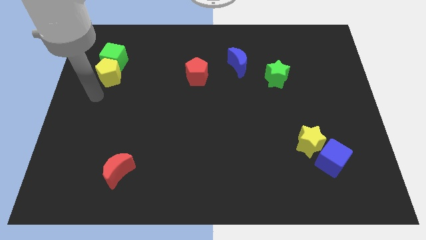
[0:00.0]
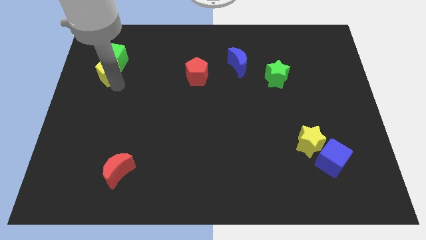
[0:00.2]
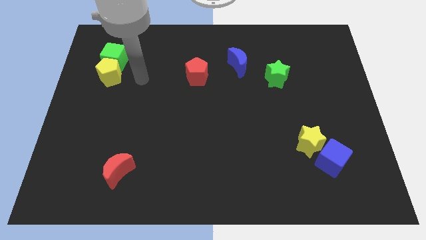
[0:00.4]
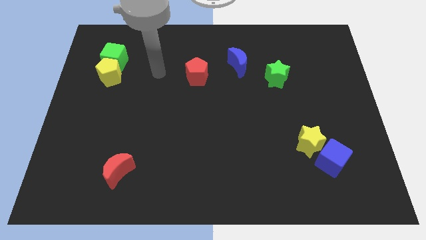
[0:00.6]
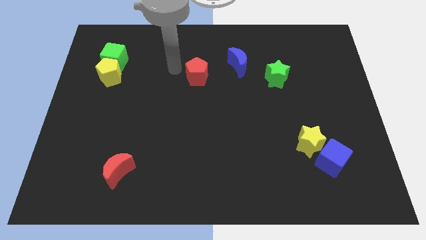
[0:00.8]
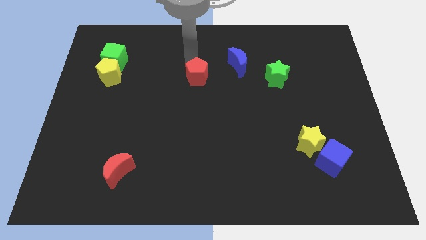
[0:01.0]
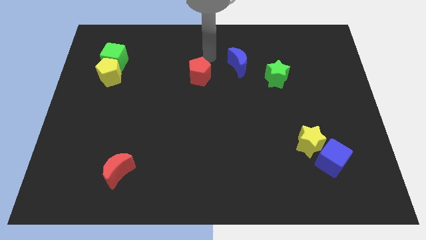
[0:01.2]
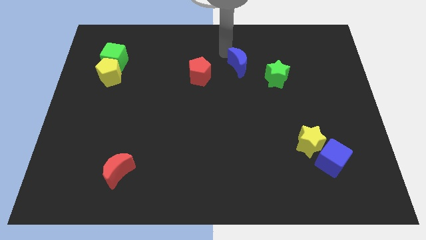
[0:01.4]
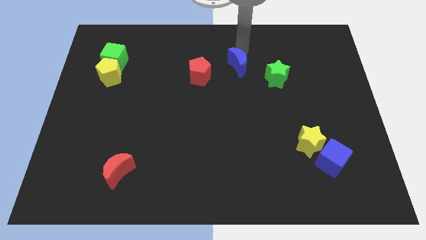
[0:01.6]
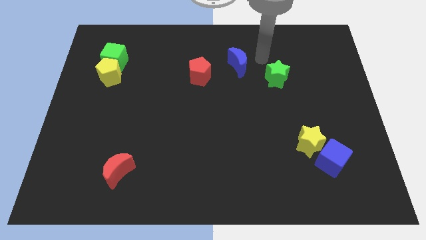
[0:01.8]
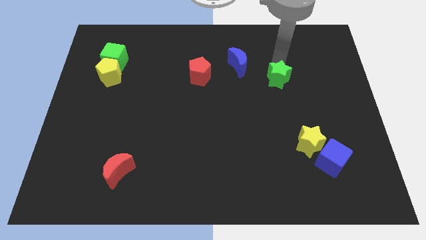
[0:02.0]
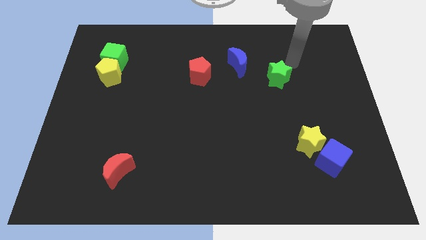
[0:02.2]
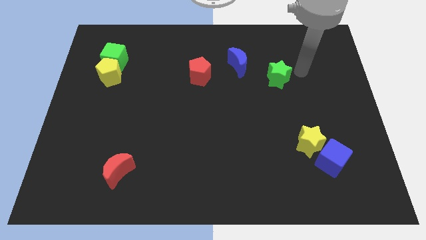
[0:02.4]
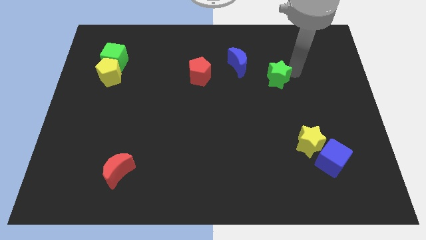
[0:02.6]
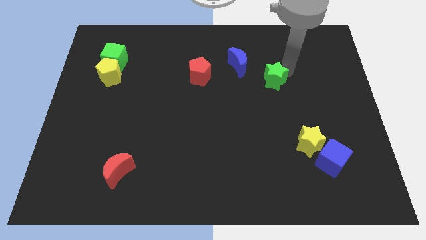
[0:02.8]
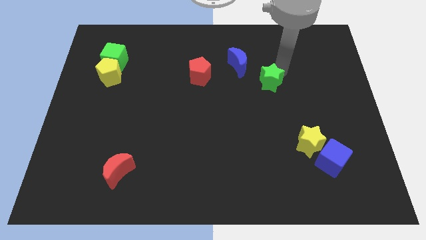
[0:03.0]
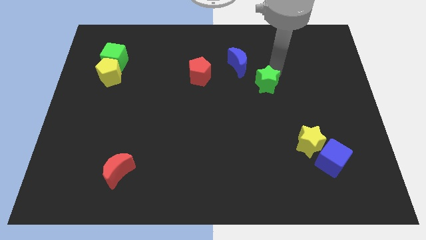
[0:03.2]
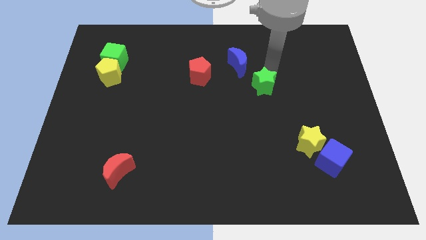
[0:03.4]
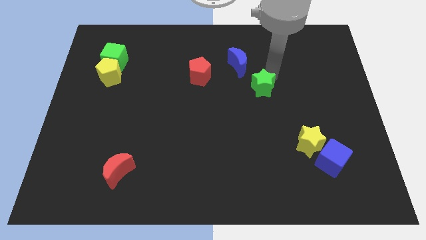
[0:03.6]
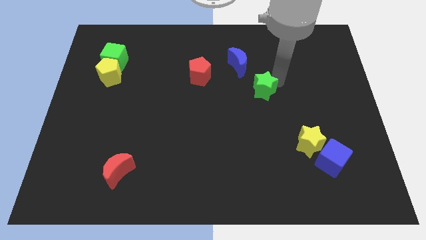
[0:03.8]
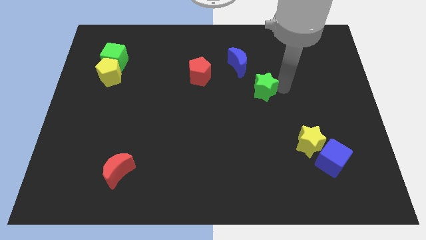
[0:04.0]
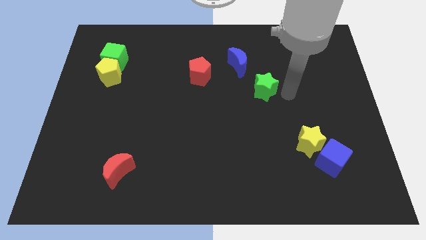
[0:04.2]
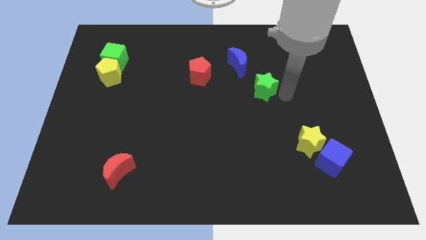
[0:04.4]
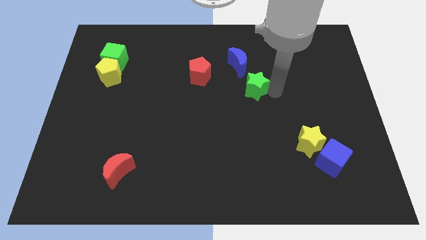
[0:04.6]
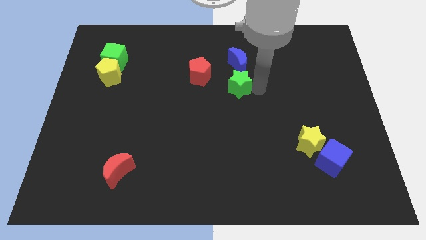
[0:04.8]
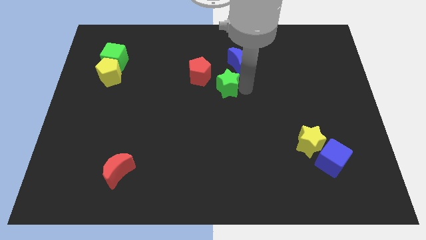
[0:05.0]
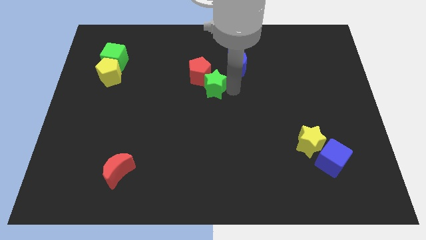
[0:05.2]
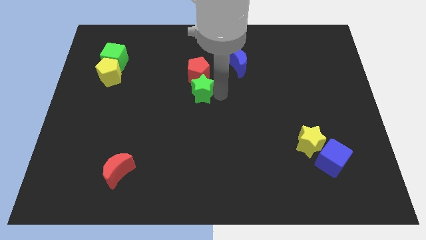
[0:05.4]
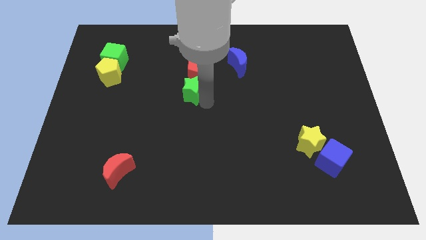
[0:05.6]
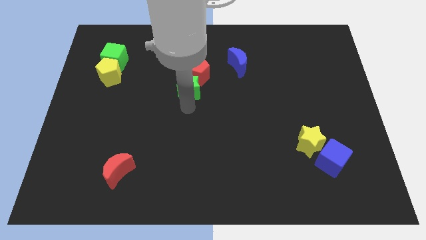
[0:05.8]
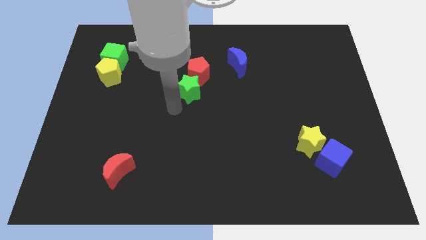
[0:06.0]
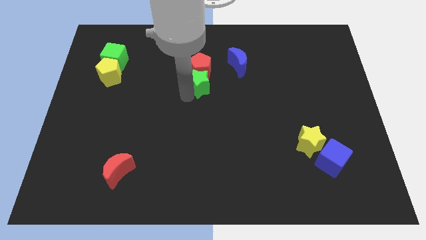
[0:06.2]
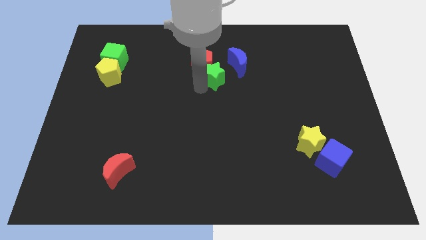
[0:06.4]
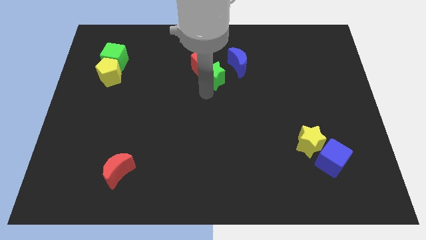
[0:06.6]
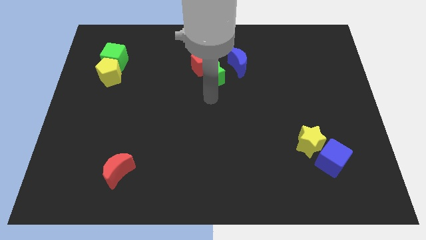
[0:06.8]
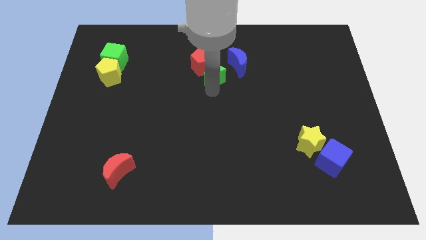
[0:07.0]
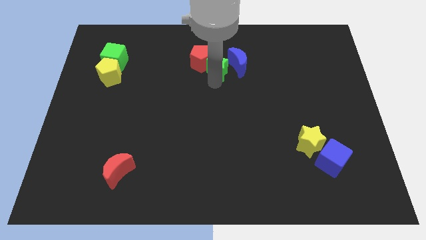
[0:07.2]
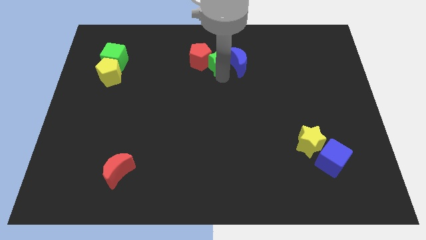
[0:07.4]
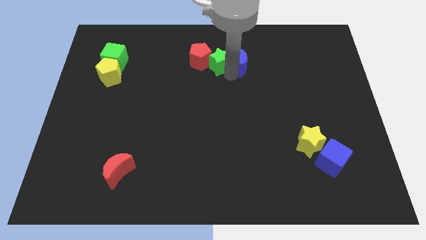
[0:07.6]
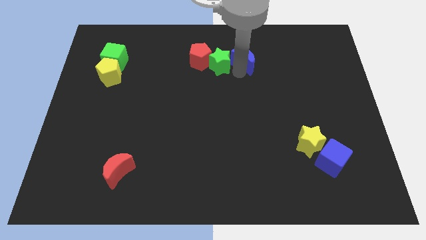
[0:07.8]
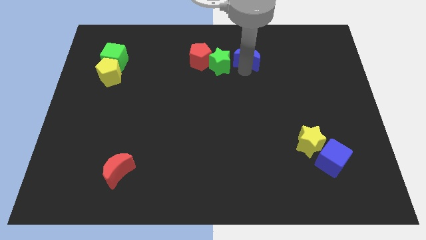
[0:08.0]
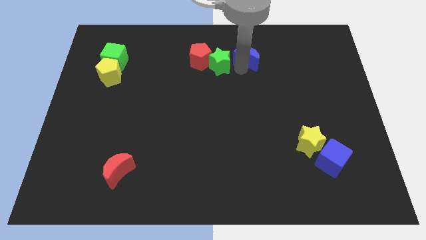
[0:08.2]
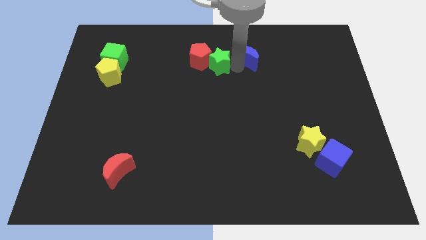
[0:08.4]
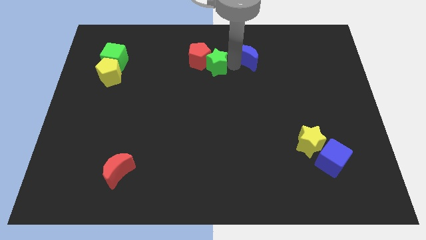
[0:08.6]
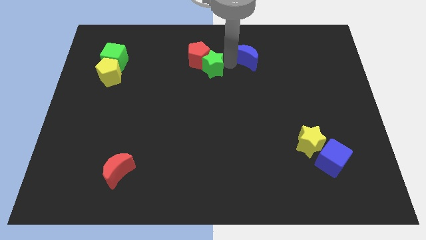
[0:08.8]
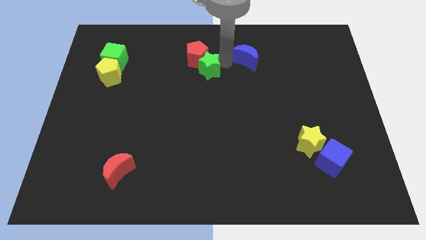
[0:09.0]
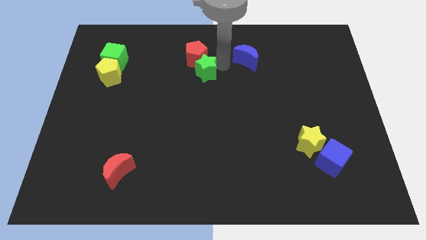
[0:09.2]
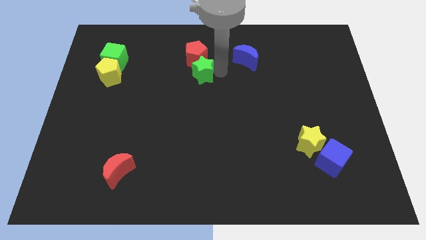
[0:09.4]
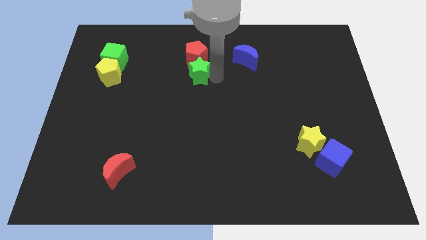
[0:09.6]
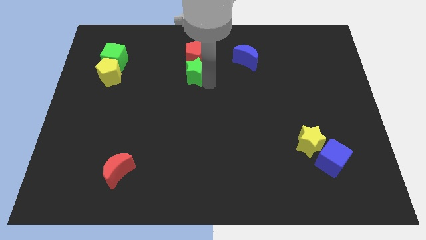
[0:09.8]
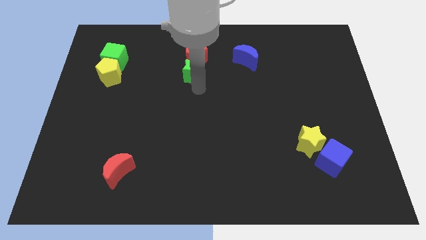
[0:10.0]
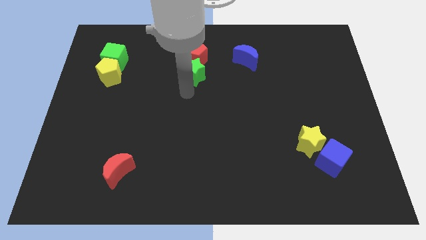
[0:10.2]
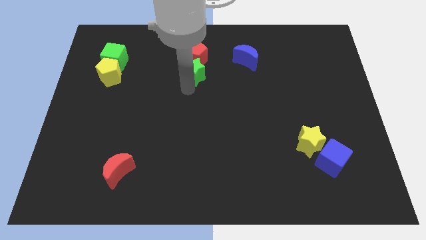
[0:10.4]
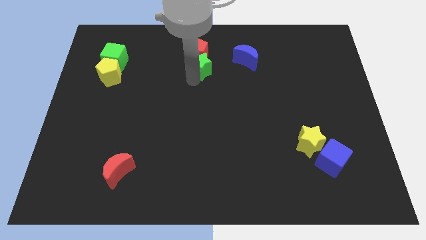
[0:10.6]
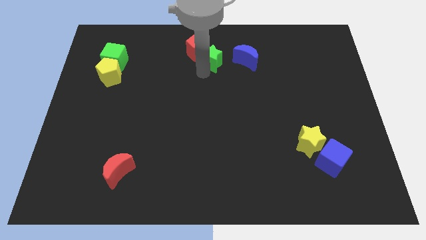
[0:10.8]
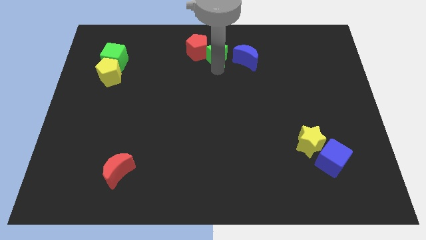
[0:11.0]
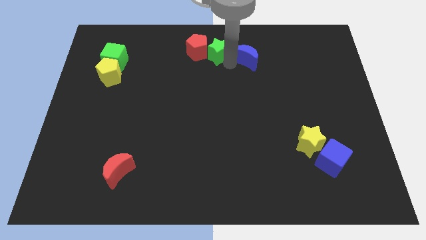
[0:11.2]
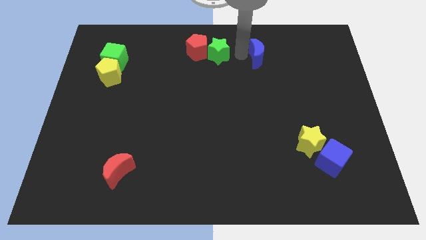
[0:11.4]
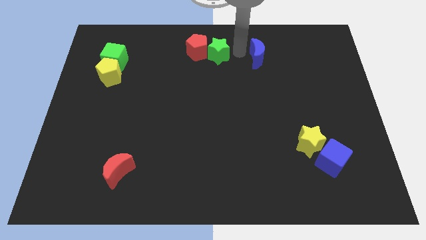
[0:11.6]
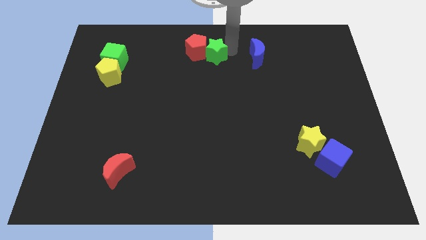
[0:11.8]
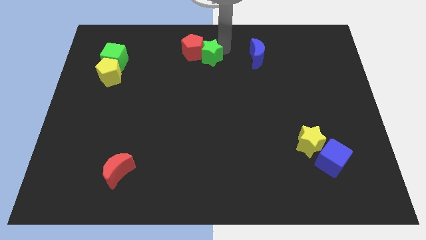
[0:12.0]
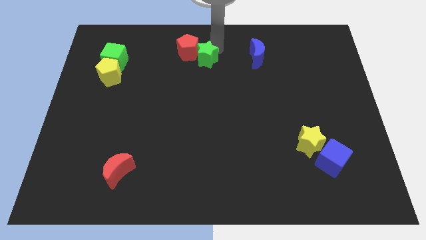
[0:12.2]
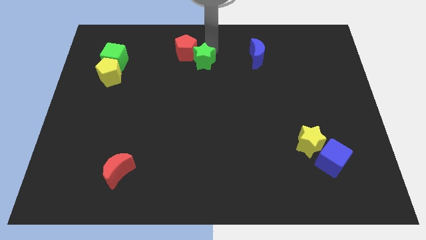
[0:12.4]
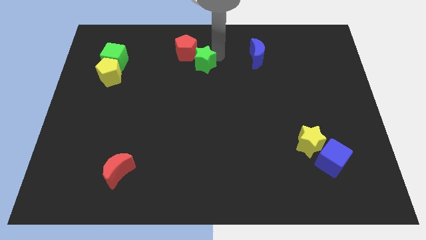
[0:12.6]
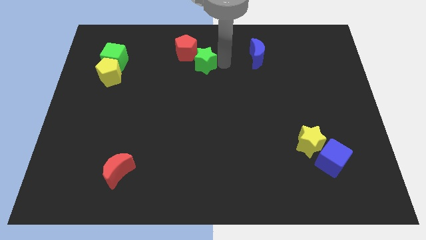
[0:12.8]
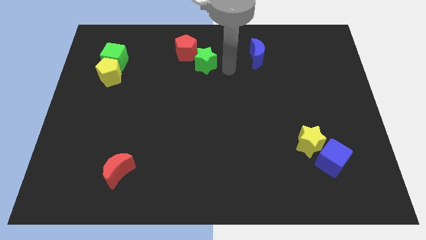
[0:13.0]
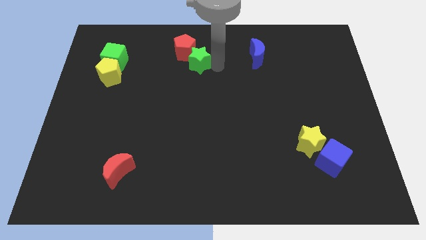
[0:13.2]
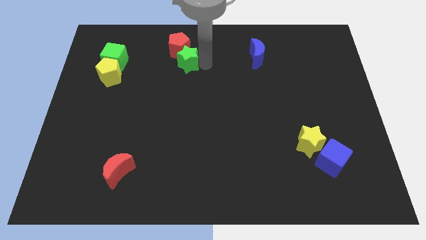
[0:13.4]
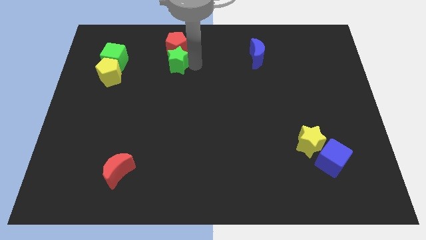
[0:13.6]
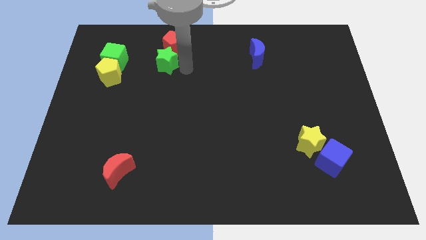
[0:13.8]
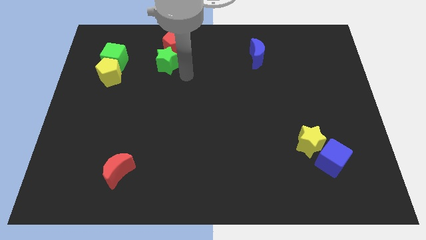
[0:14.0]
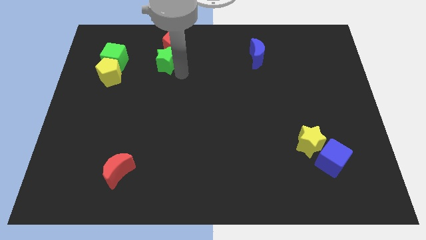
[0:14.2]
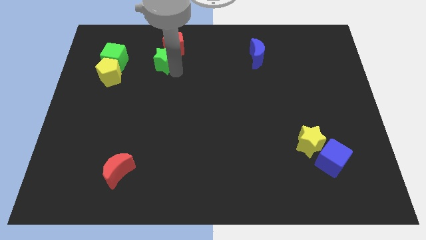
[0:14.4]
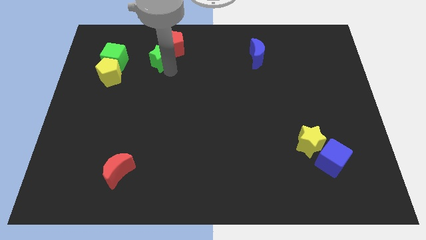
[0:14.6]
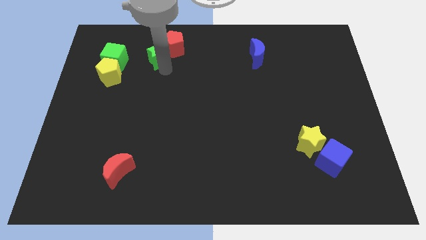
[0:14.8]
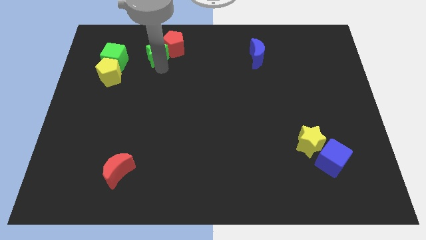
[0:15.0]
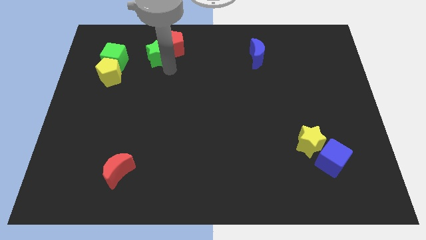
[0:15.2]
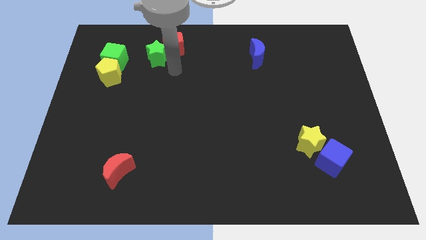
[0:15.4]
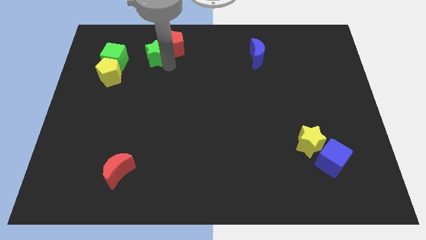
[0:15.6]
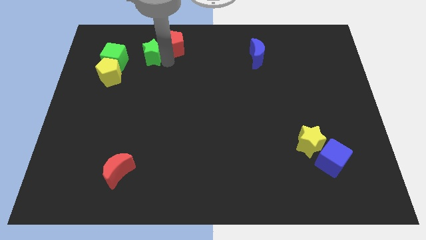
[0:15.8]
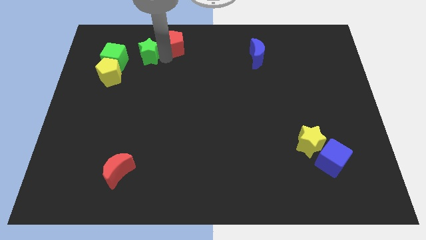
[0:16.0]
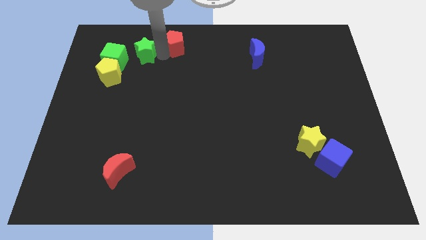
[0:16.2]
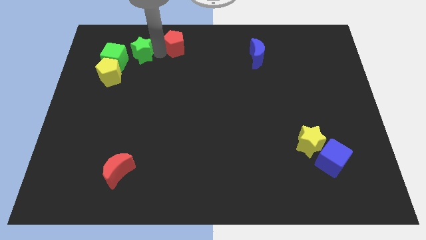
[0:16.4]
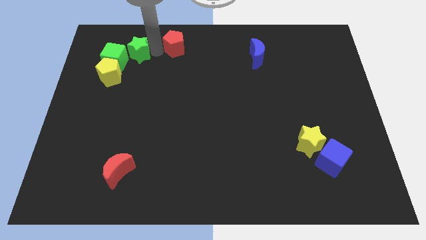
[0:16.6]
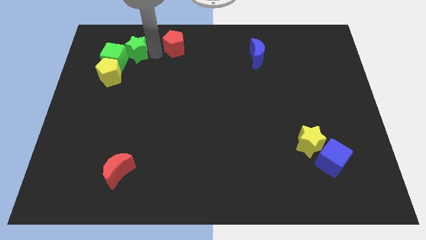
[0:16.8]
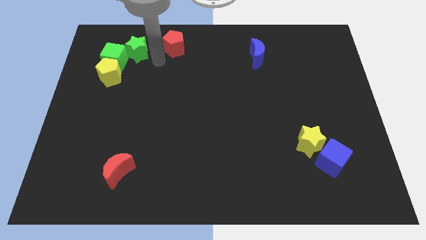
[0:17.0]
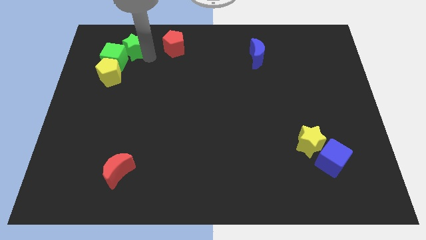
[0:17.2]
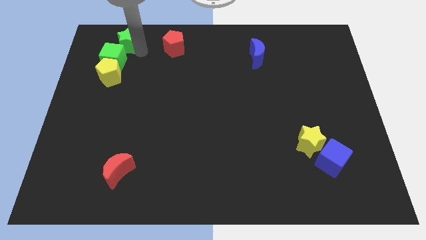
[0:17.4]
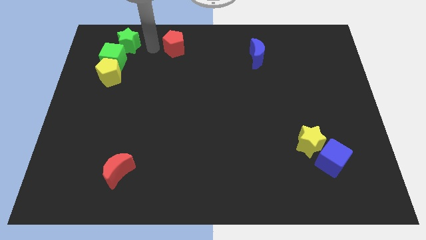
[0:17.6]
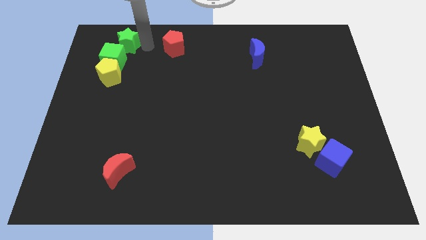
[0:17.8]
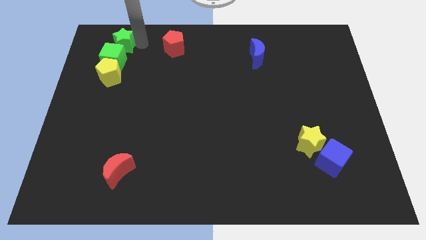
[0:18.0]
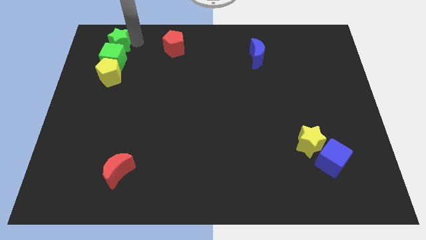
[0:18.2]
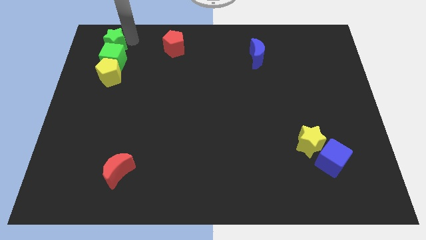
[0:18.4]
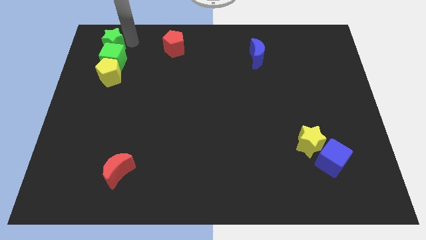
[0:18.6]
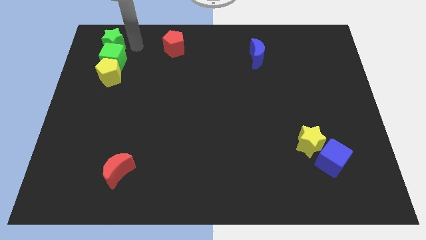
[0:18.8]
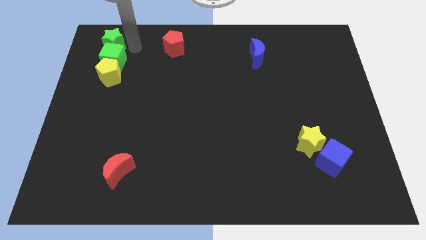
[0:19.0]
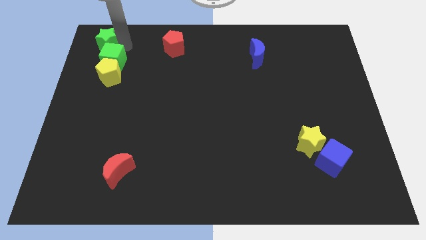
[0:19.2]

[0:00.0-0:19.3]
put the green star to the top left corner
